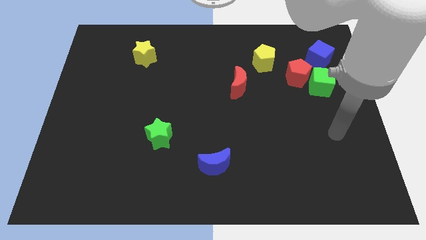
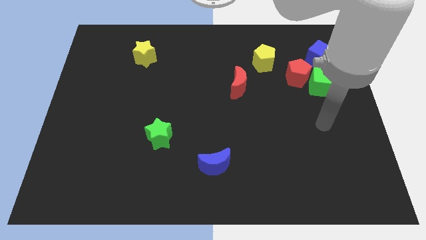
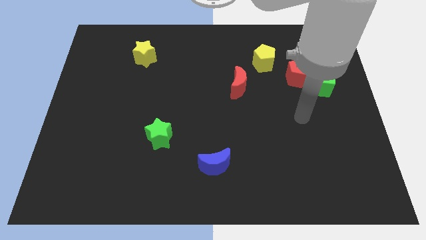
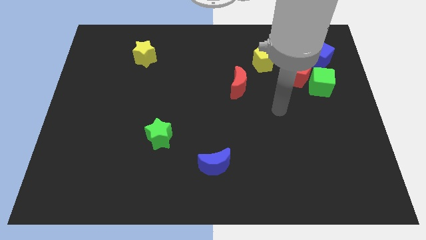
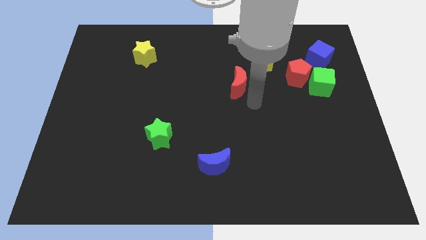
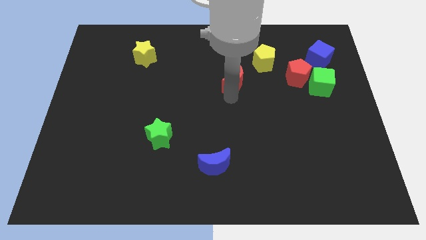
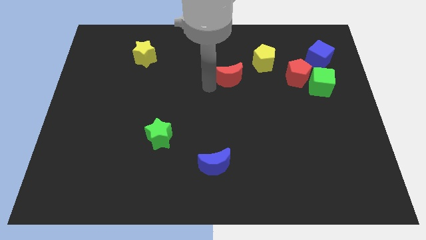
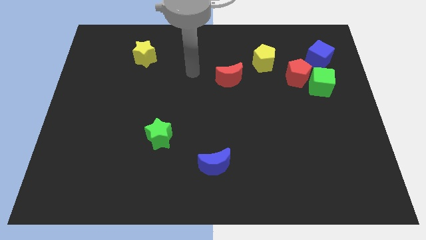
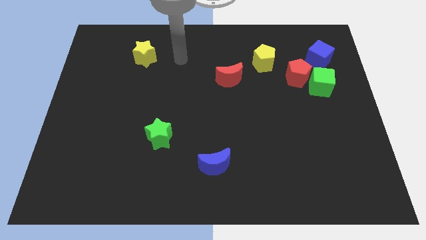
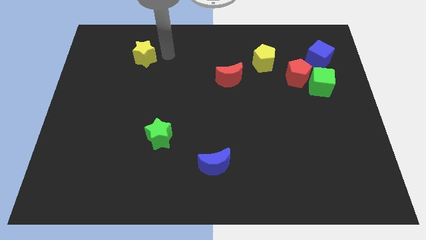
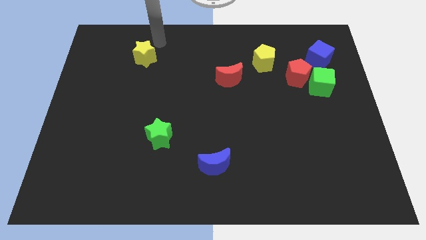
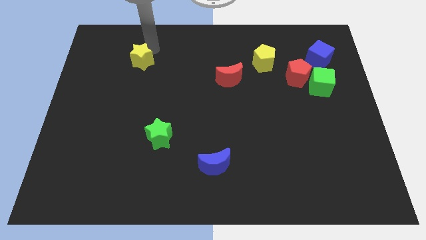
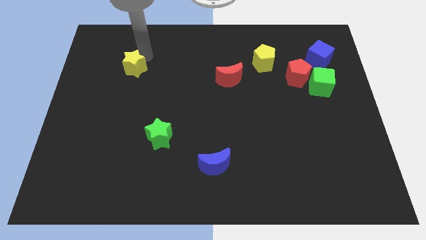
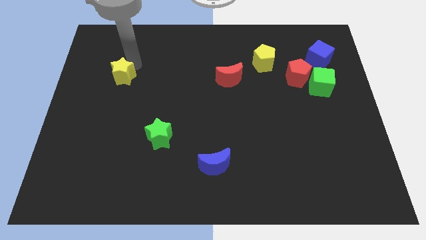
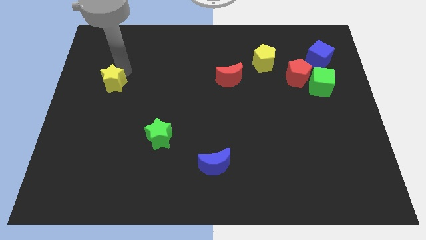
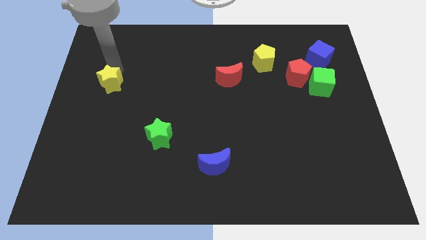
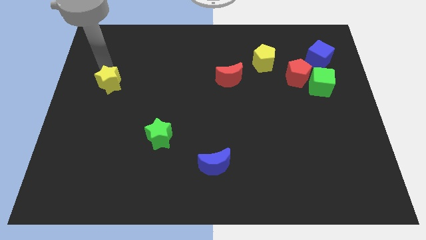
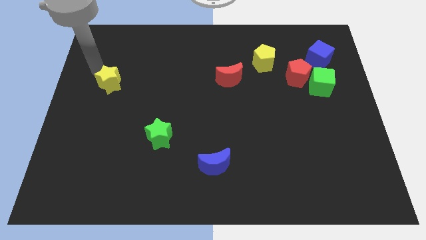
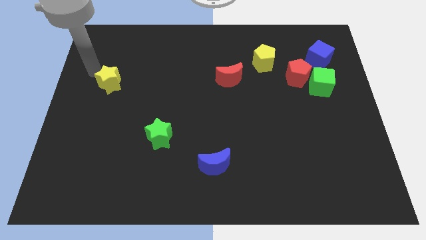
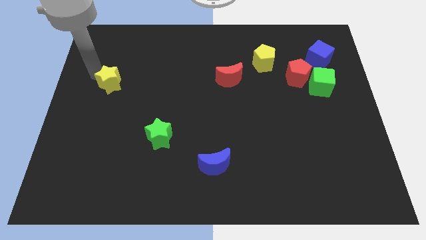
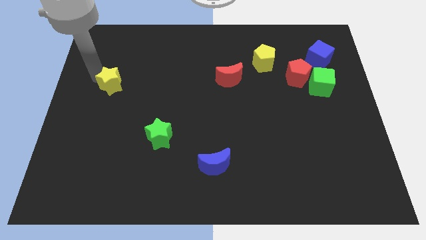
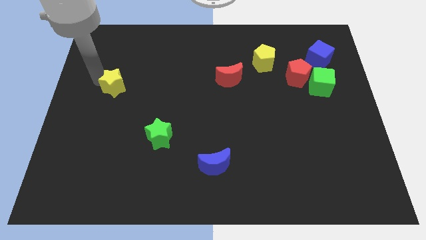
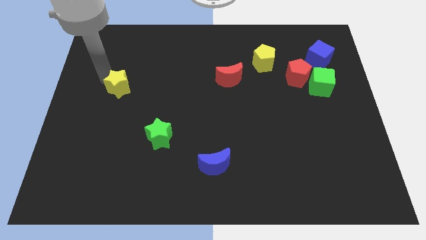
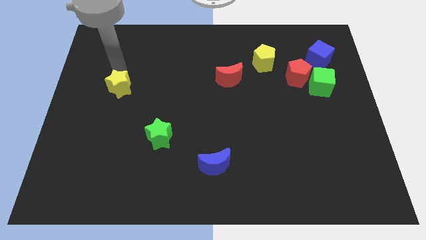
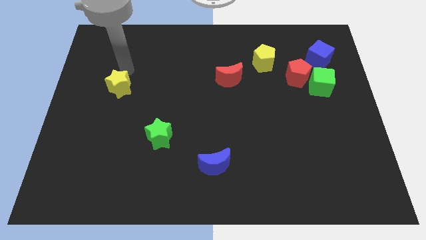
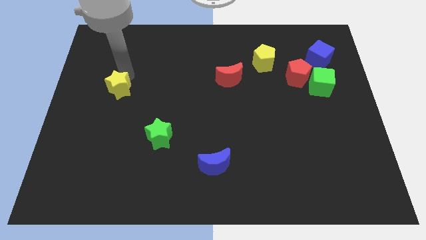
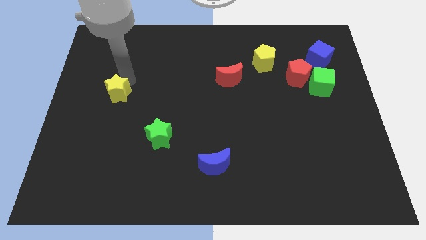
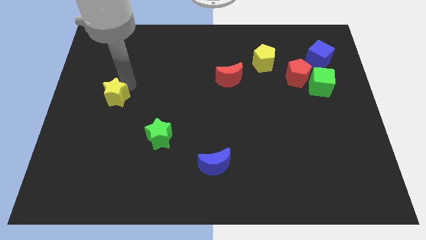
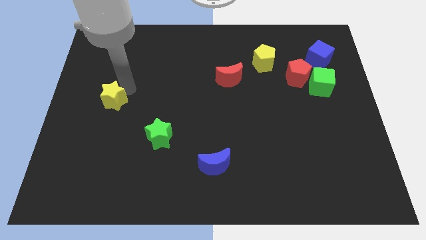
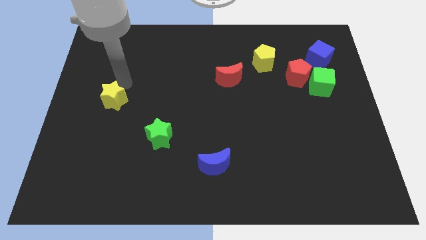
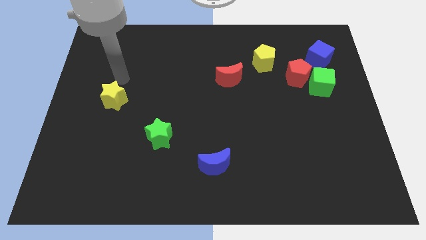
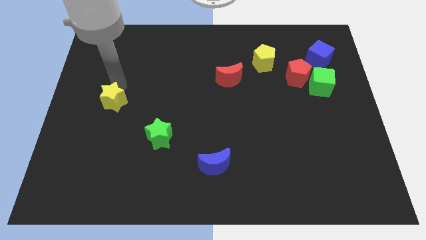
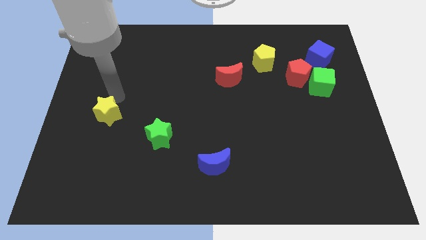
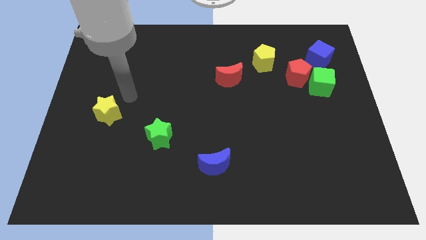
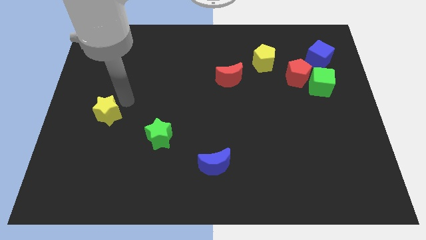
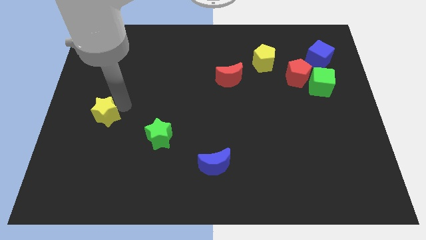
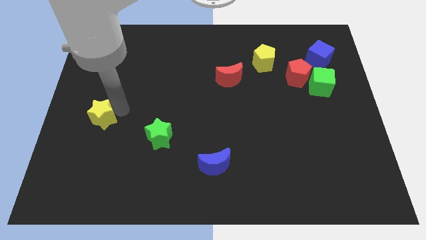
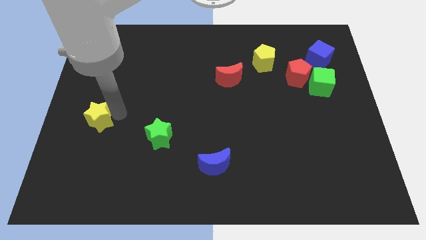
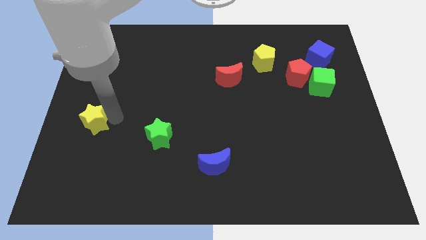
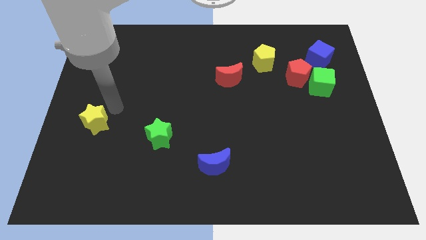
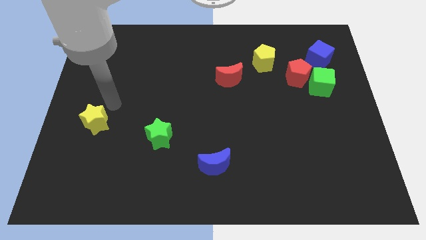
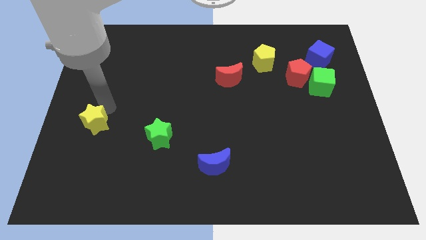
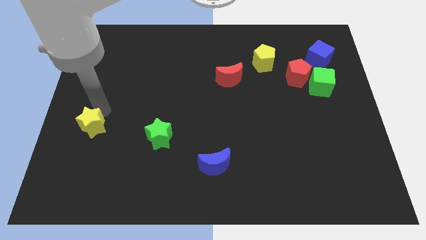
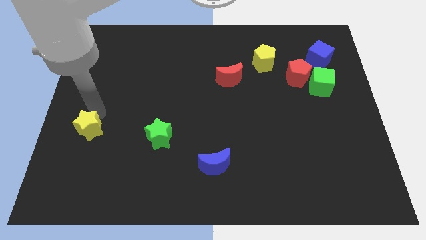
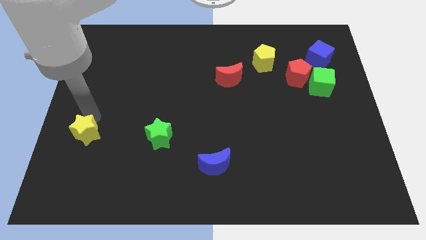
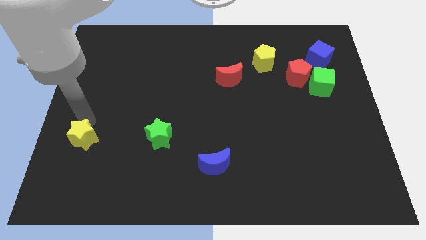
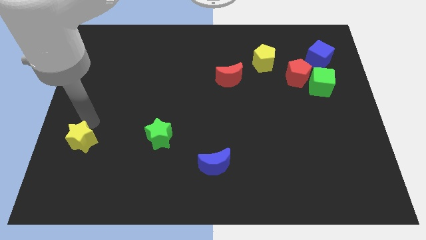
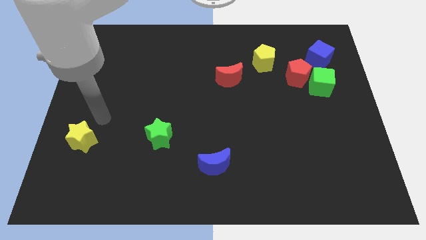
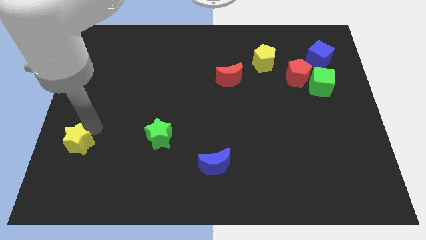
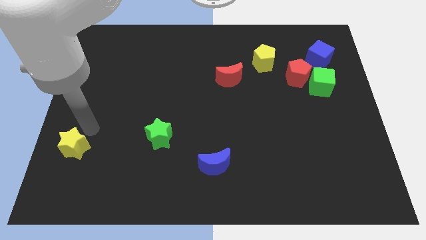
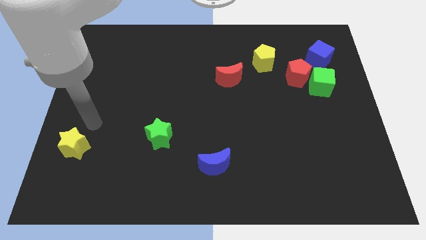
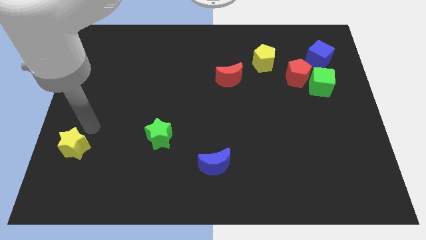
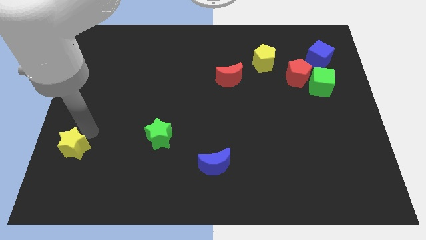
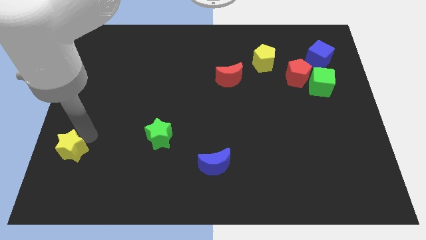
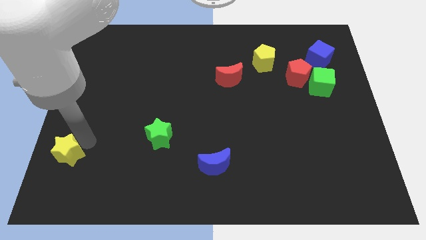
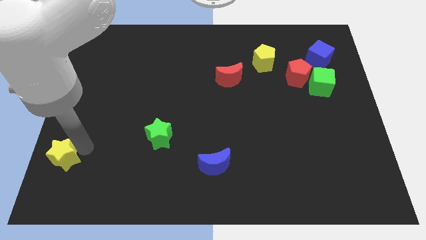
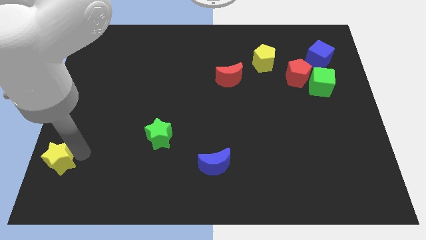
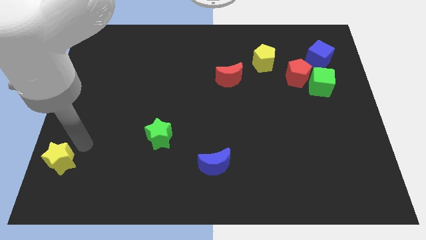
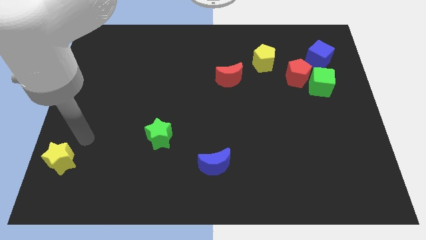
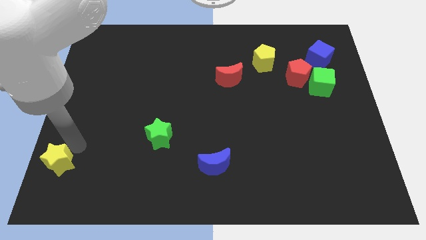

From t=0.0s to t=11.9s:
move the yellow star to the bottom left corner

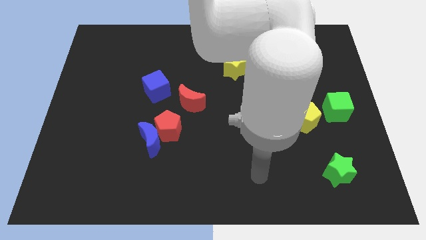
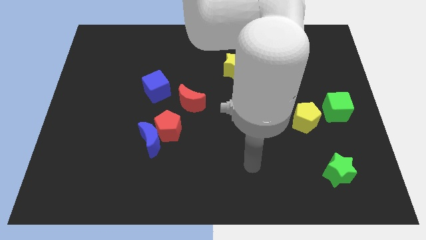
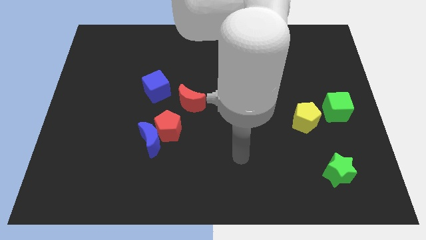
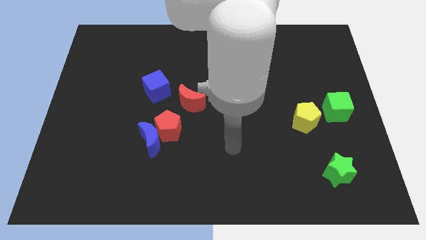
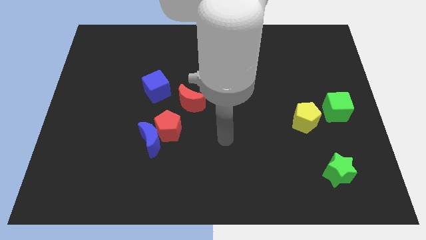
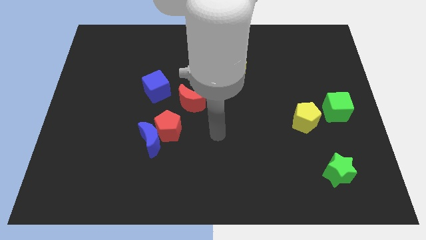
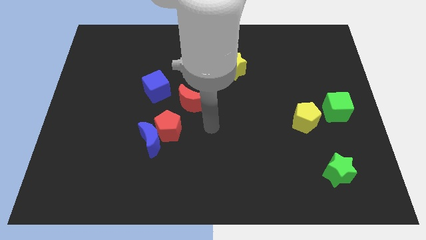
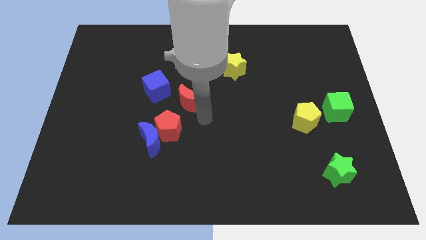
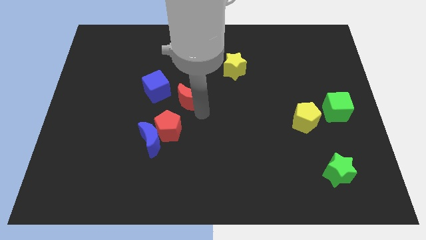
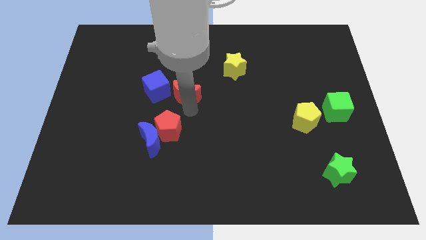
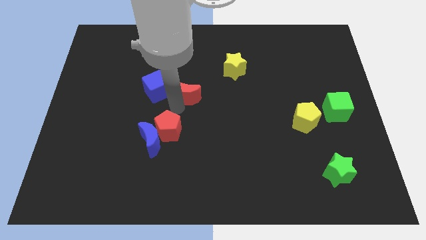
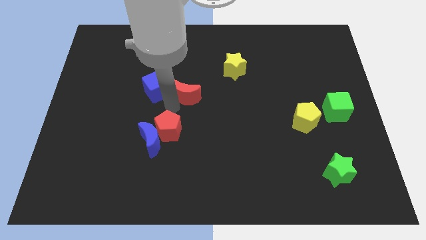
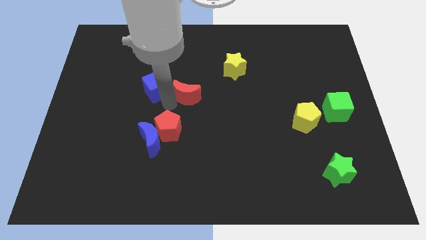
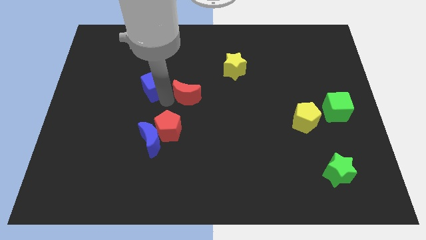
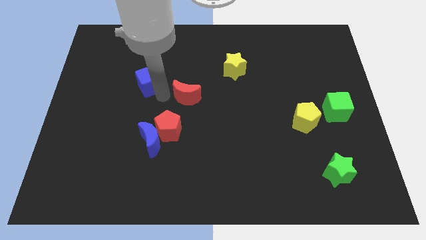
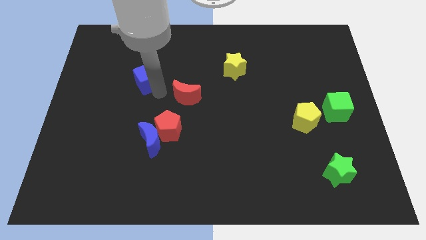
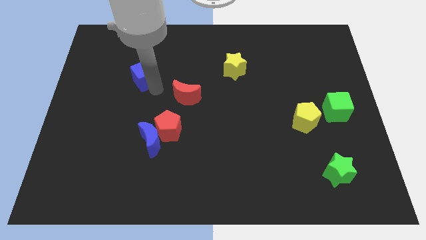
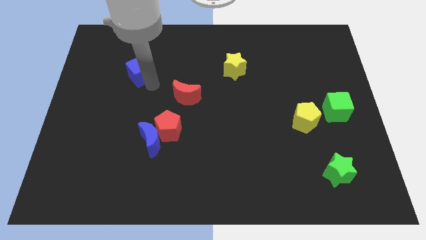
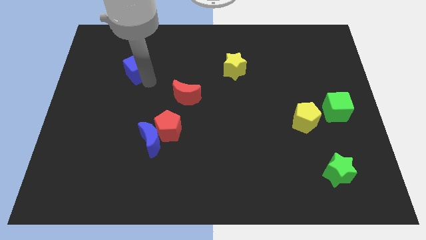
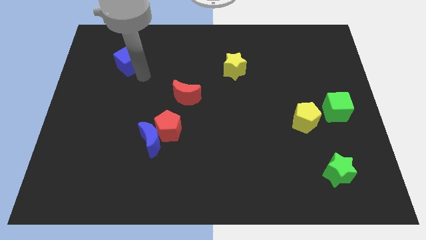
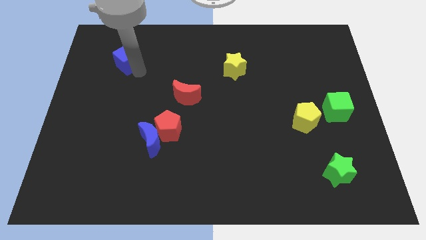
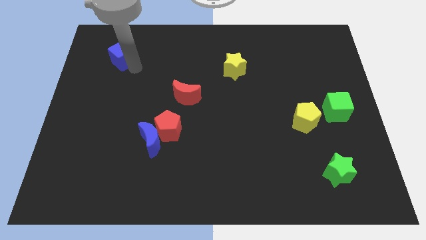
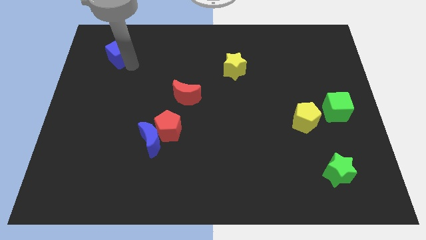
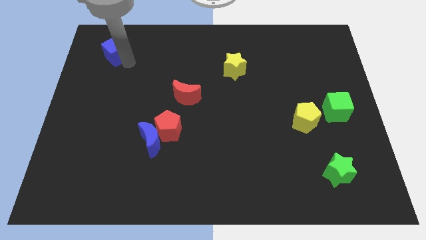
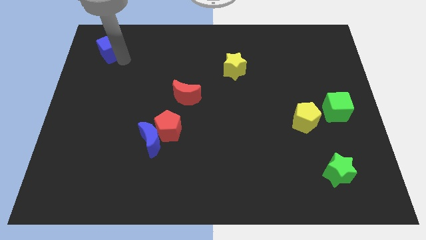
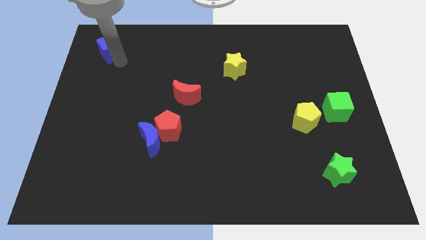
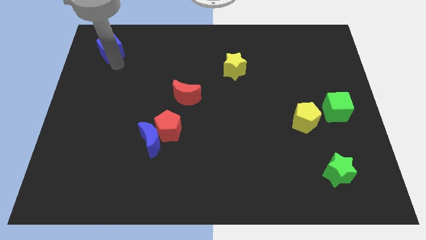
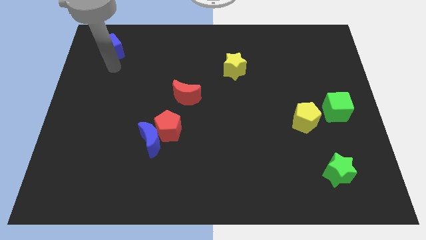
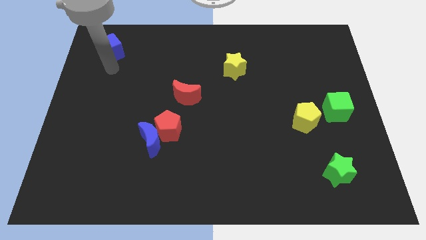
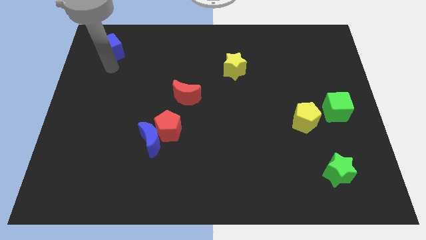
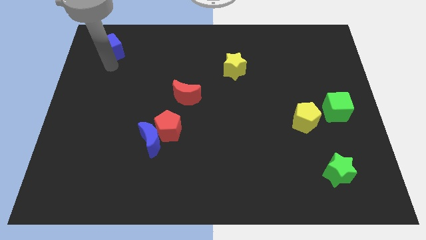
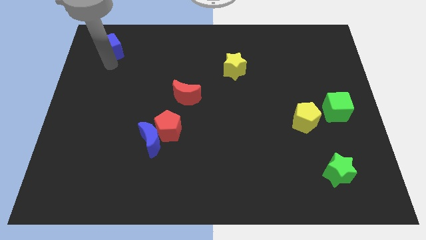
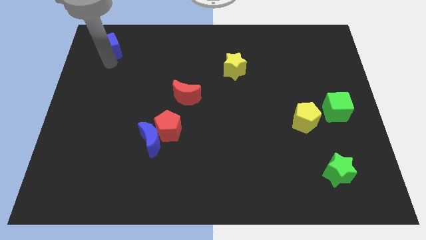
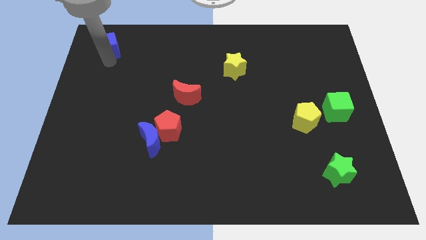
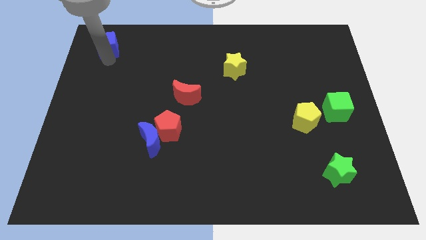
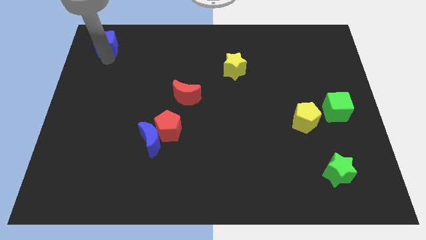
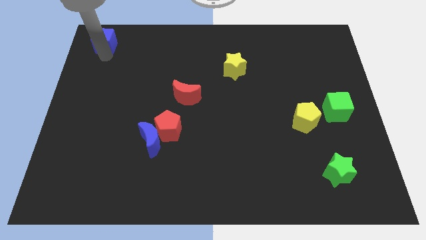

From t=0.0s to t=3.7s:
slide the blue cube to the top left of the board
